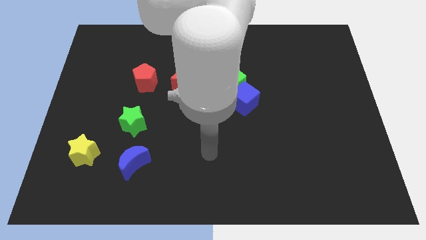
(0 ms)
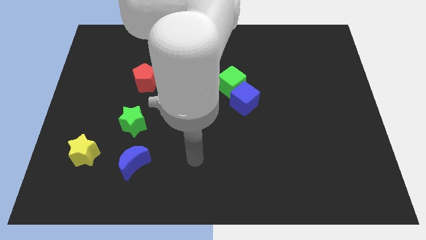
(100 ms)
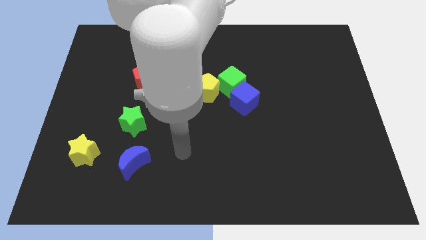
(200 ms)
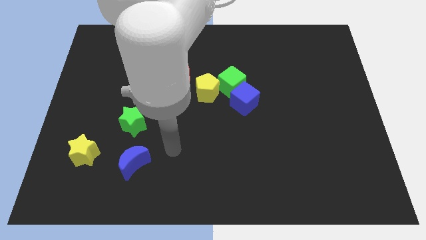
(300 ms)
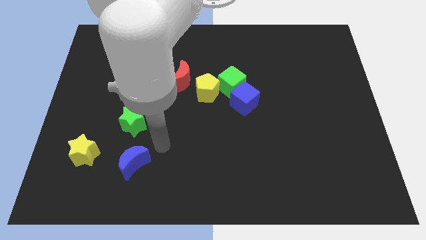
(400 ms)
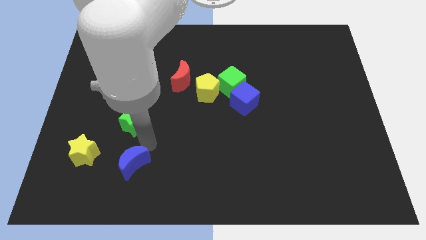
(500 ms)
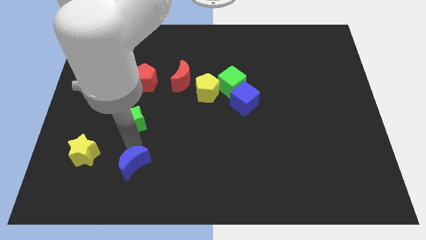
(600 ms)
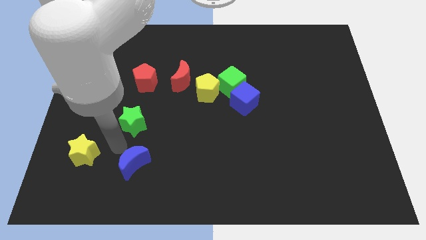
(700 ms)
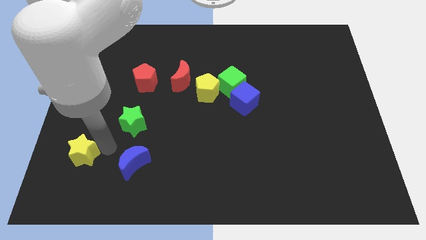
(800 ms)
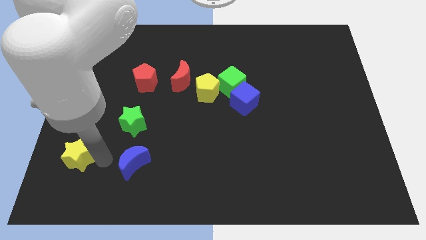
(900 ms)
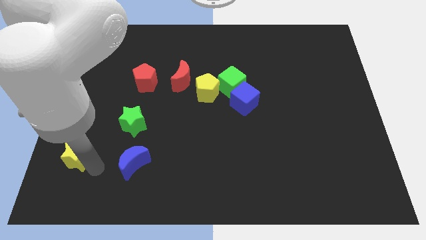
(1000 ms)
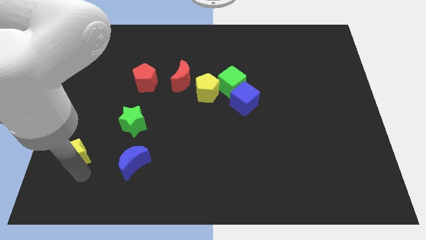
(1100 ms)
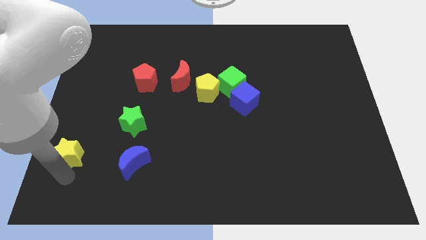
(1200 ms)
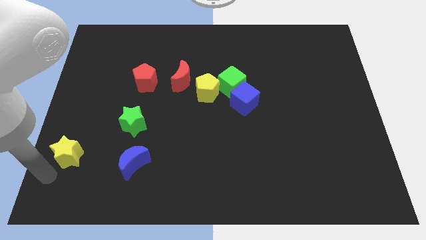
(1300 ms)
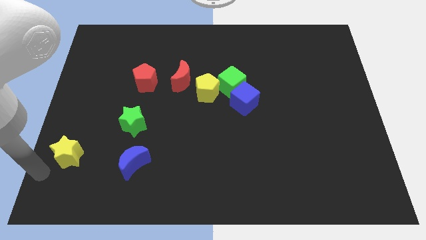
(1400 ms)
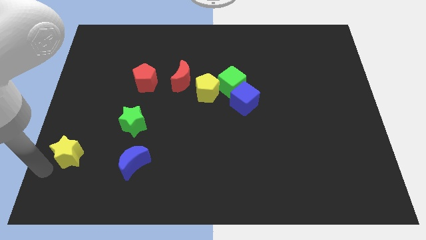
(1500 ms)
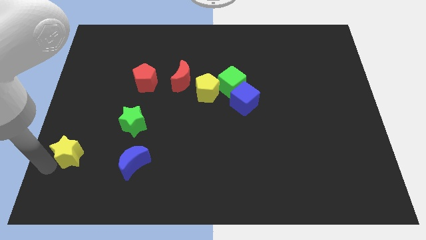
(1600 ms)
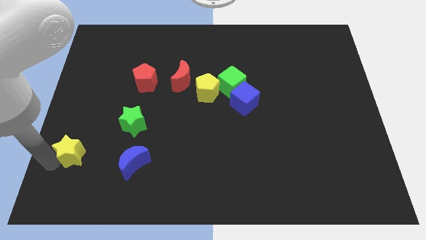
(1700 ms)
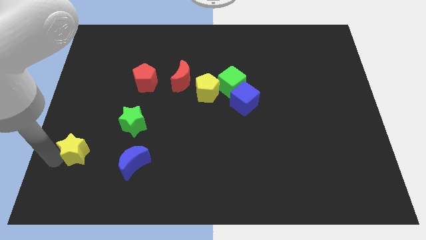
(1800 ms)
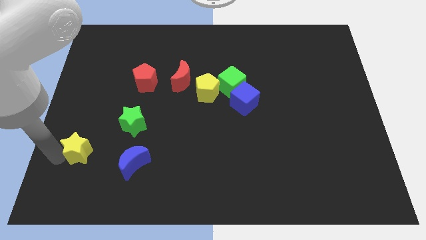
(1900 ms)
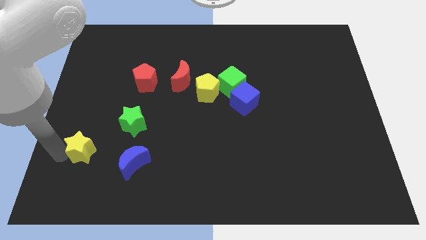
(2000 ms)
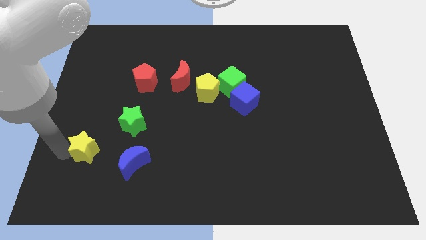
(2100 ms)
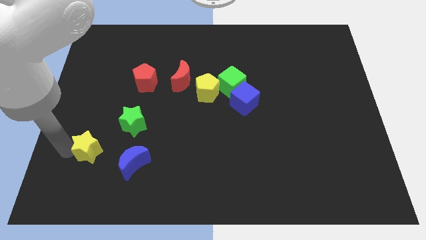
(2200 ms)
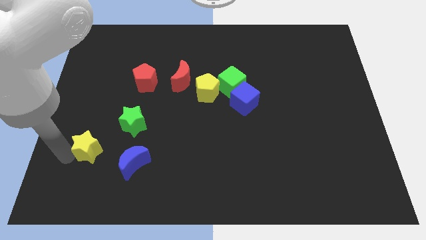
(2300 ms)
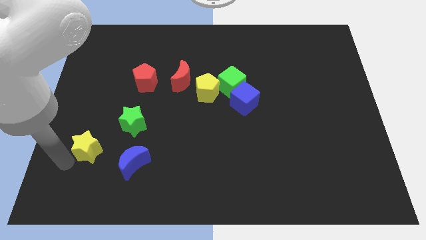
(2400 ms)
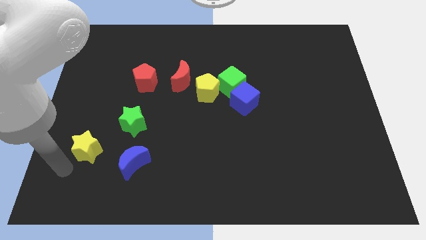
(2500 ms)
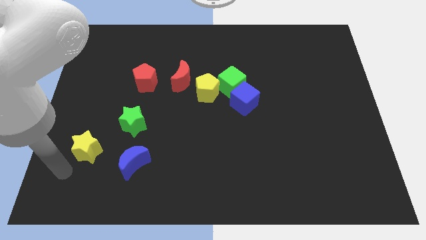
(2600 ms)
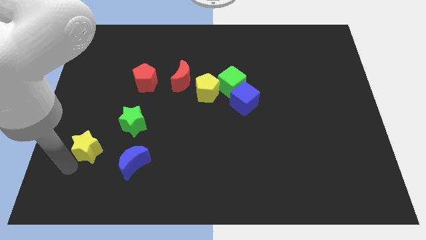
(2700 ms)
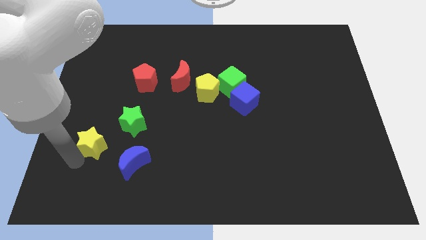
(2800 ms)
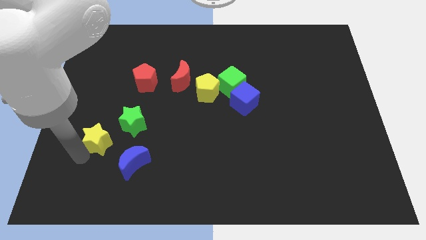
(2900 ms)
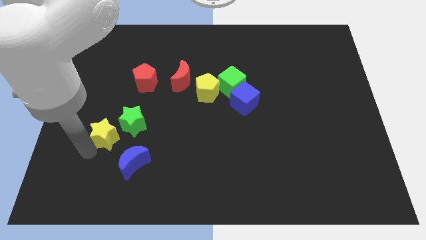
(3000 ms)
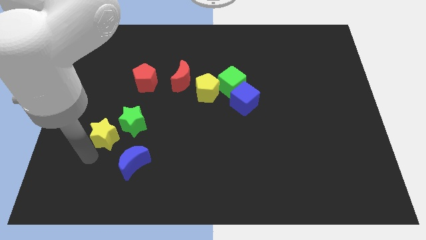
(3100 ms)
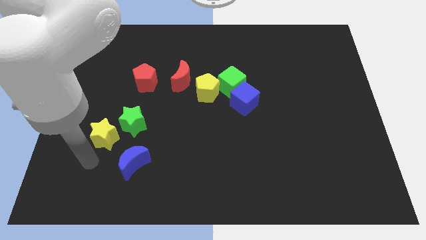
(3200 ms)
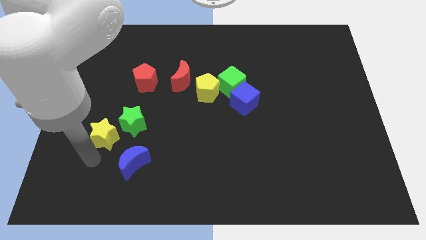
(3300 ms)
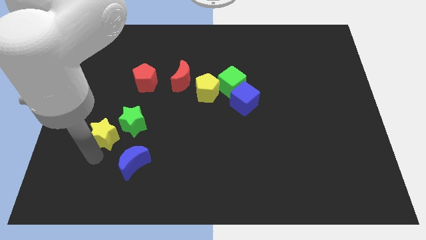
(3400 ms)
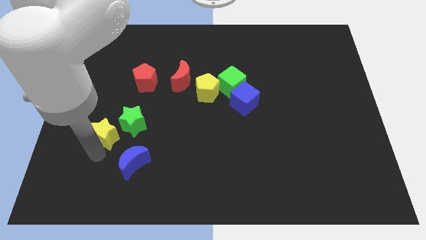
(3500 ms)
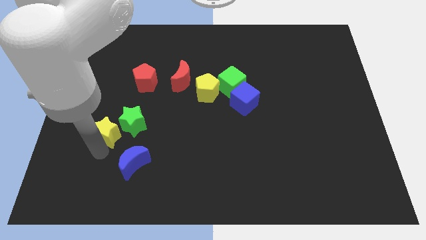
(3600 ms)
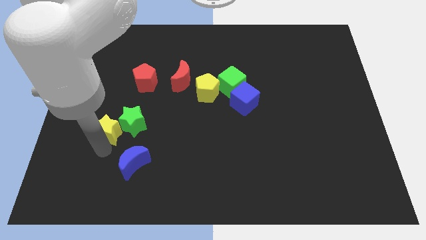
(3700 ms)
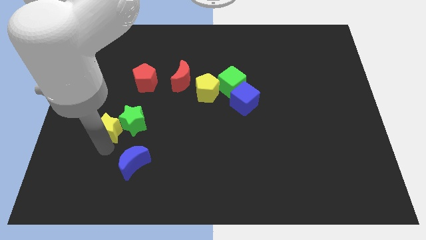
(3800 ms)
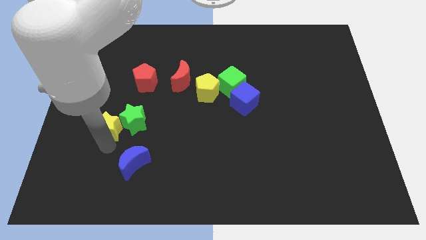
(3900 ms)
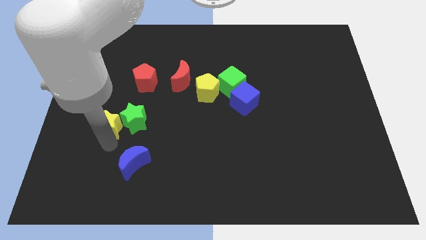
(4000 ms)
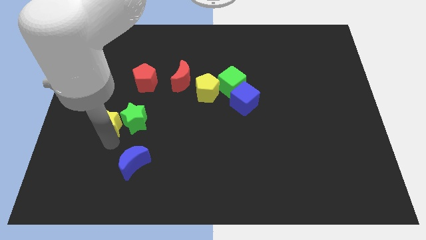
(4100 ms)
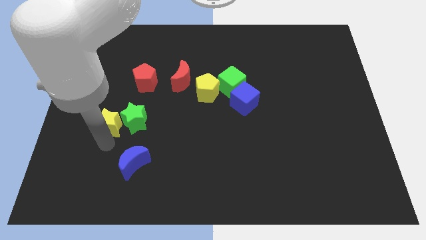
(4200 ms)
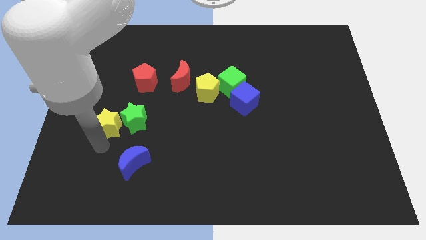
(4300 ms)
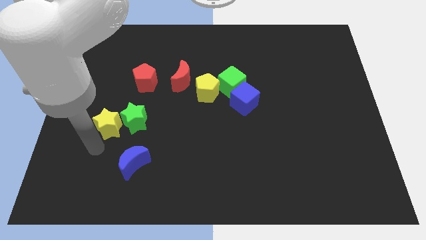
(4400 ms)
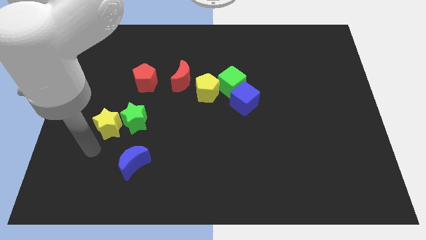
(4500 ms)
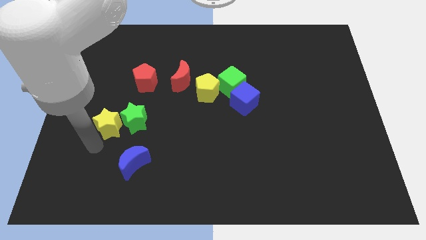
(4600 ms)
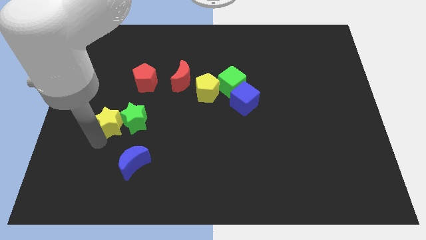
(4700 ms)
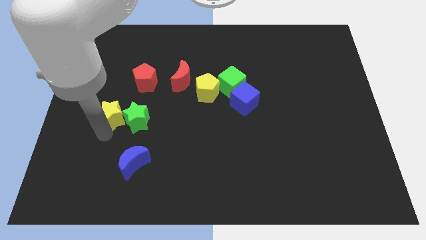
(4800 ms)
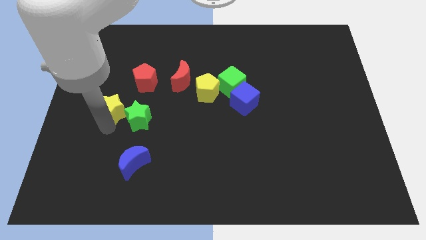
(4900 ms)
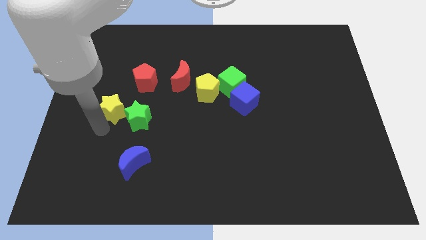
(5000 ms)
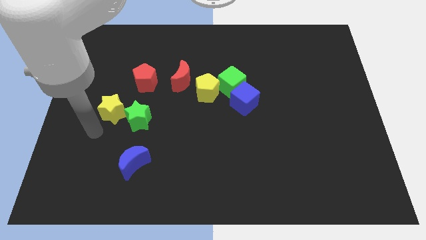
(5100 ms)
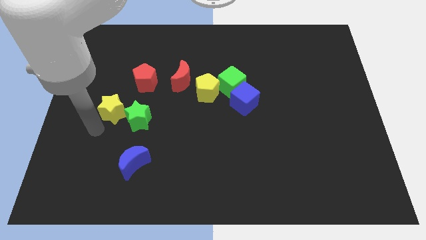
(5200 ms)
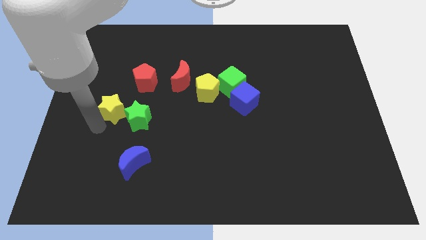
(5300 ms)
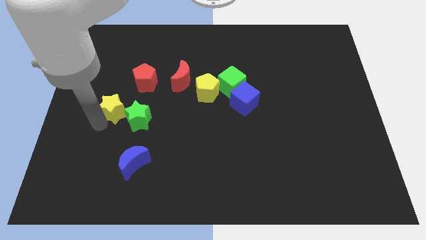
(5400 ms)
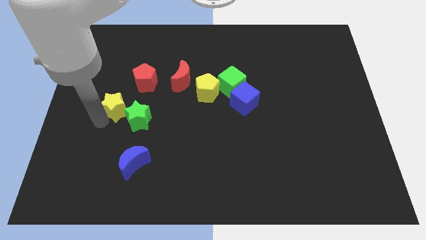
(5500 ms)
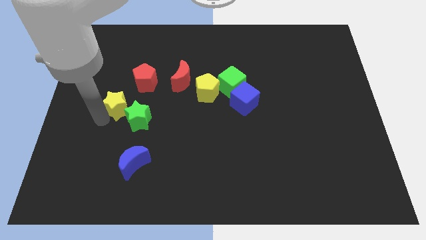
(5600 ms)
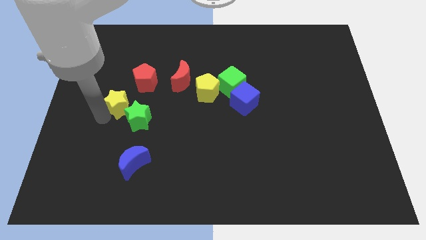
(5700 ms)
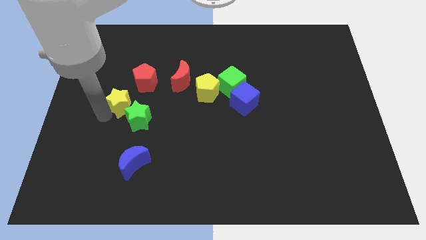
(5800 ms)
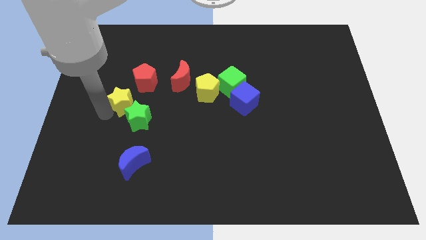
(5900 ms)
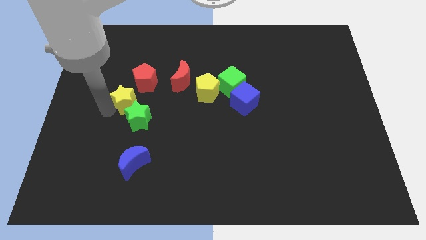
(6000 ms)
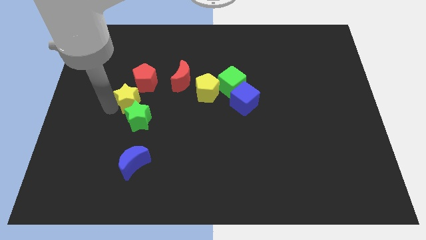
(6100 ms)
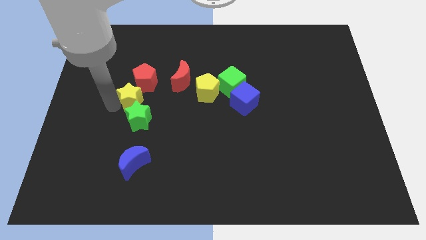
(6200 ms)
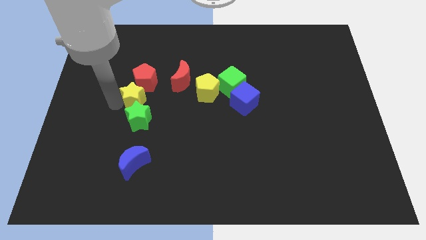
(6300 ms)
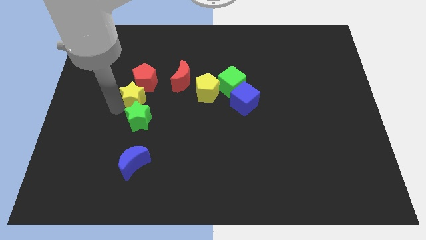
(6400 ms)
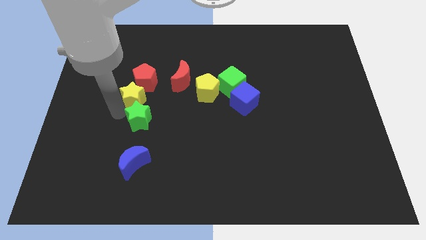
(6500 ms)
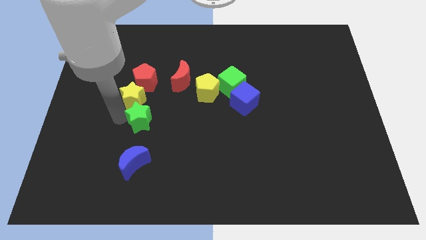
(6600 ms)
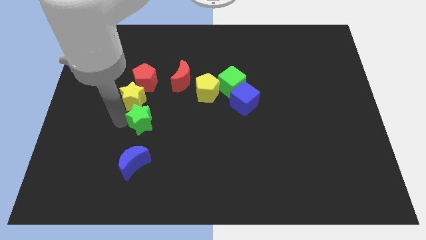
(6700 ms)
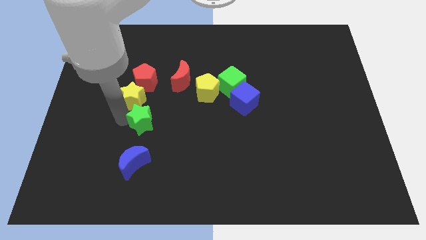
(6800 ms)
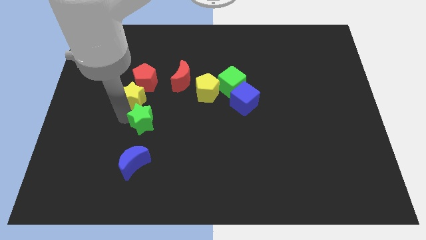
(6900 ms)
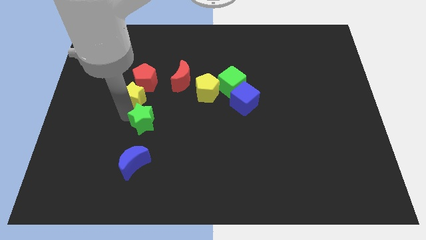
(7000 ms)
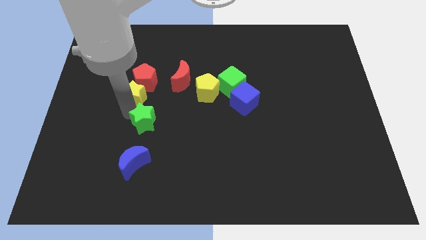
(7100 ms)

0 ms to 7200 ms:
move the yellow star towards the red pentagon
